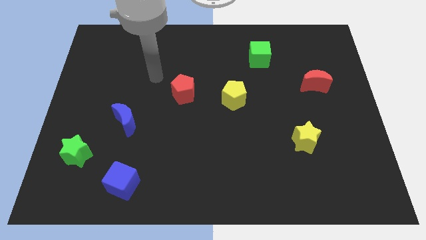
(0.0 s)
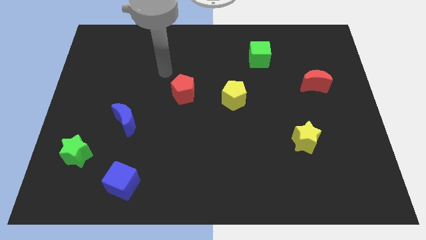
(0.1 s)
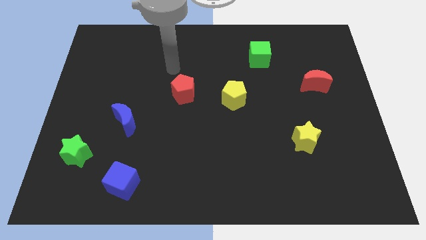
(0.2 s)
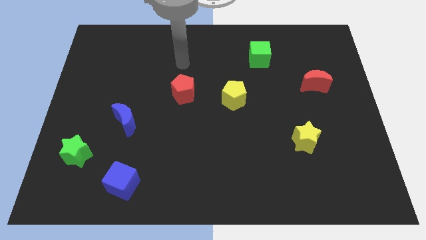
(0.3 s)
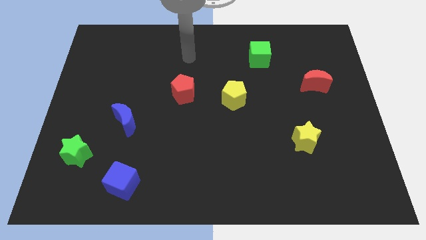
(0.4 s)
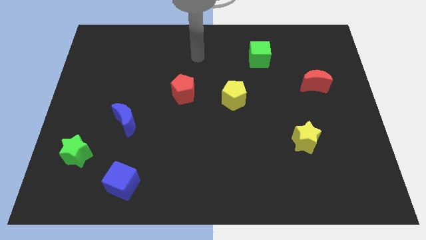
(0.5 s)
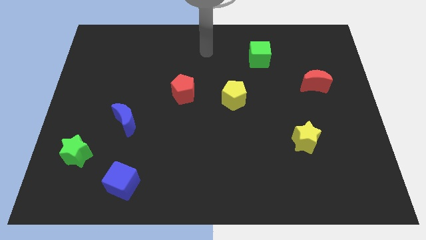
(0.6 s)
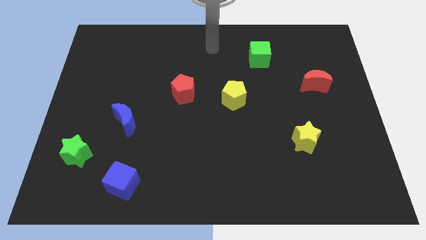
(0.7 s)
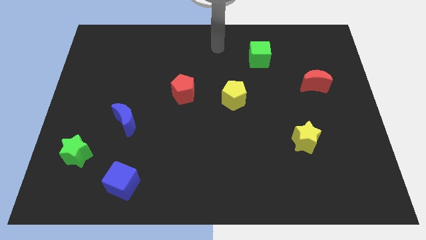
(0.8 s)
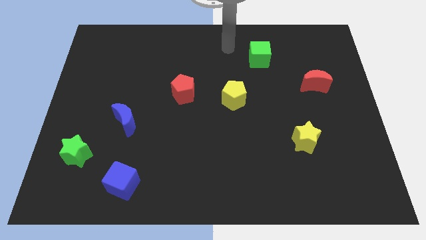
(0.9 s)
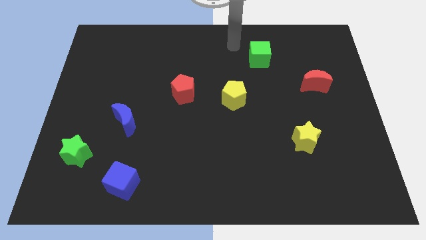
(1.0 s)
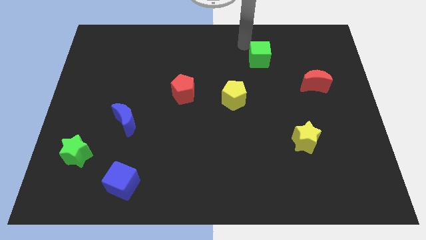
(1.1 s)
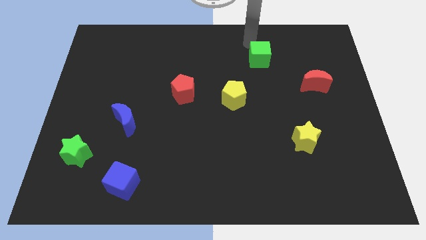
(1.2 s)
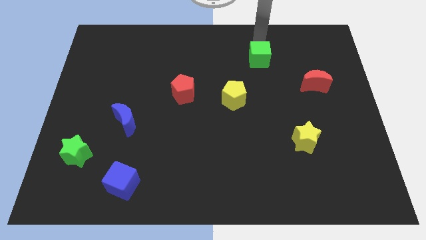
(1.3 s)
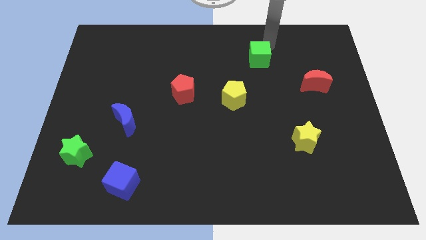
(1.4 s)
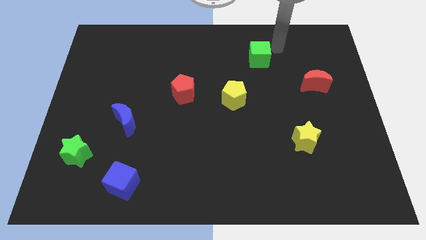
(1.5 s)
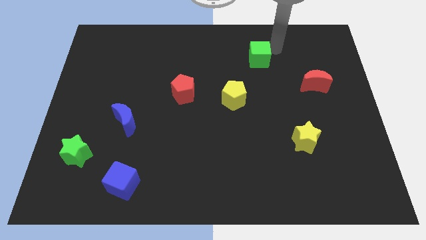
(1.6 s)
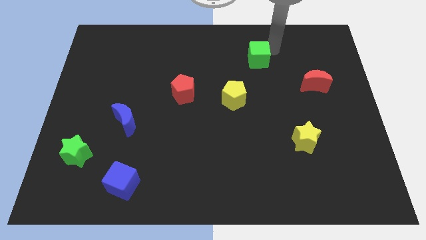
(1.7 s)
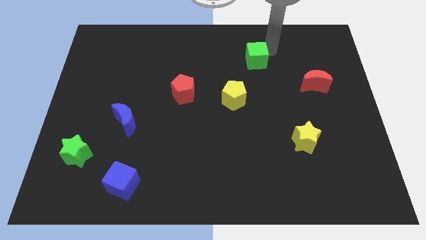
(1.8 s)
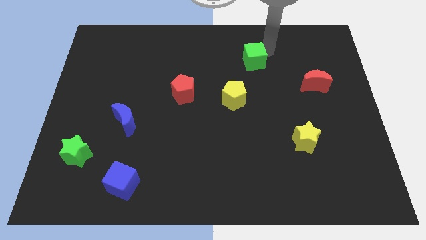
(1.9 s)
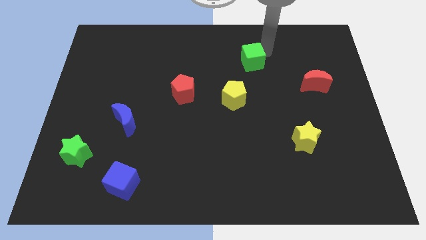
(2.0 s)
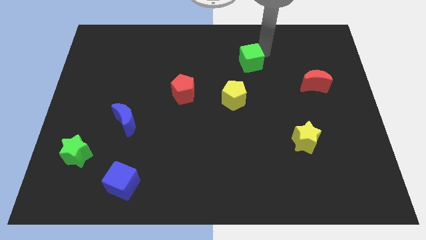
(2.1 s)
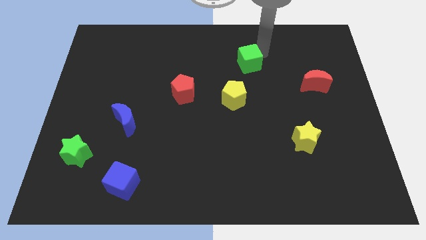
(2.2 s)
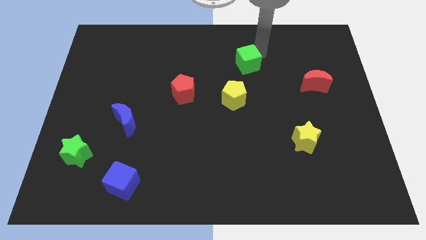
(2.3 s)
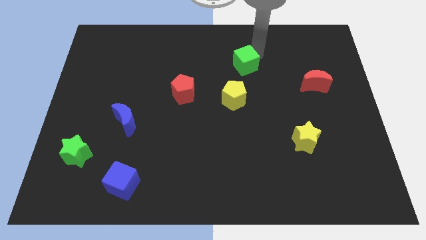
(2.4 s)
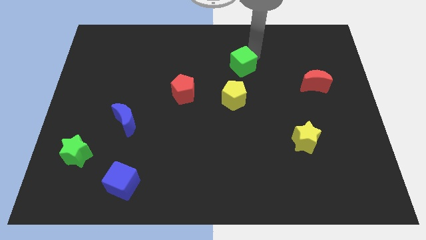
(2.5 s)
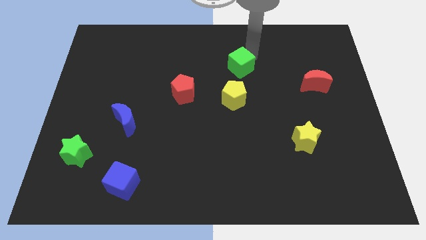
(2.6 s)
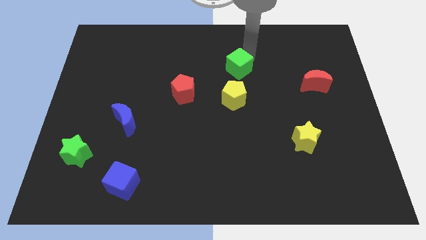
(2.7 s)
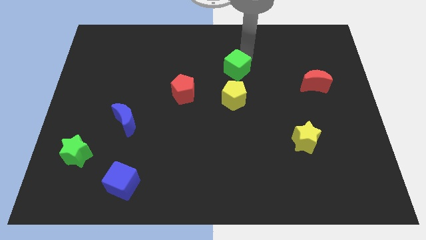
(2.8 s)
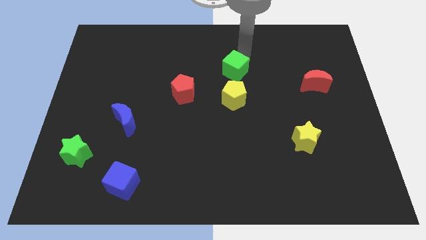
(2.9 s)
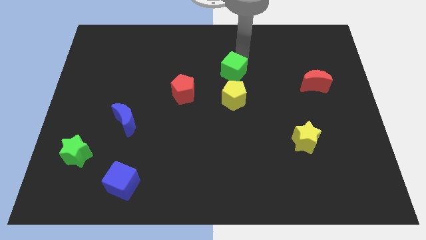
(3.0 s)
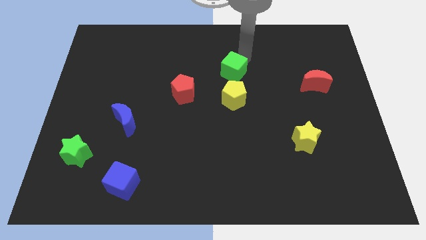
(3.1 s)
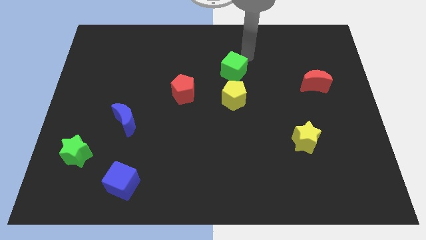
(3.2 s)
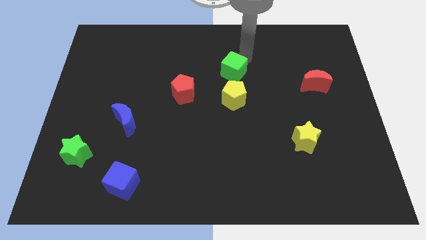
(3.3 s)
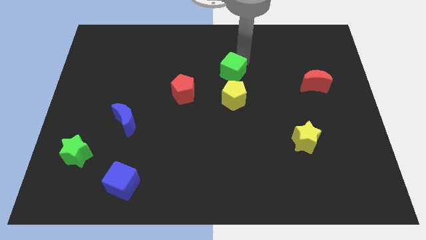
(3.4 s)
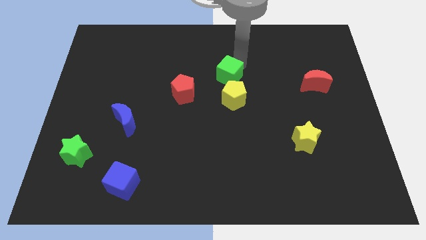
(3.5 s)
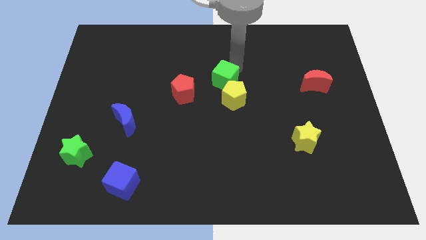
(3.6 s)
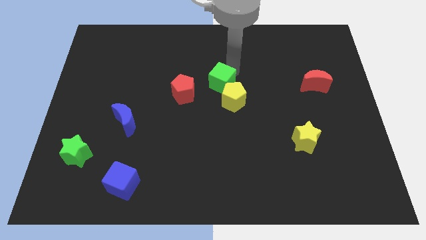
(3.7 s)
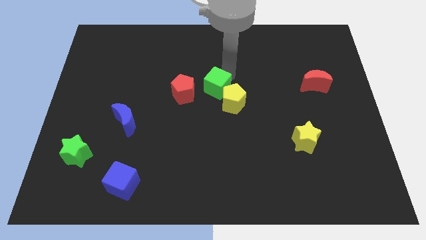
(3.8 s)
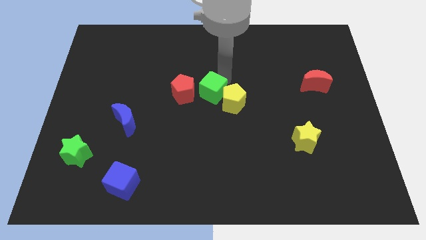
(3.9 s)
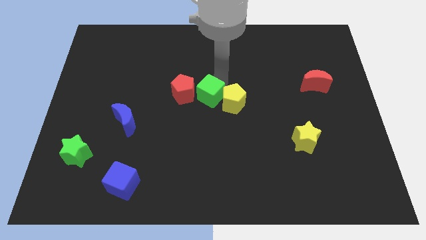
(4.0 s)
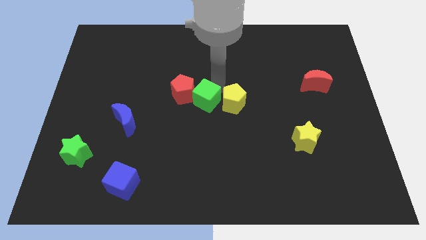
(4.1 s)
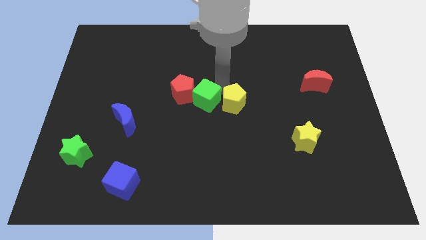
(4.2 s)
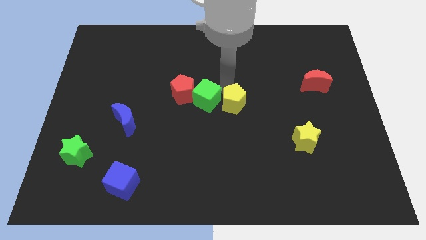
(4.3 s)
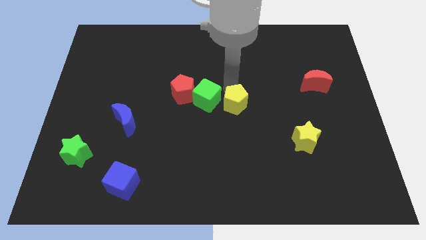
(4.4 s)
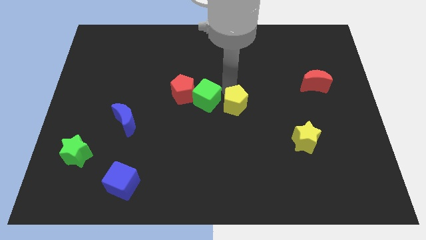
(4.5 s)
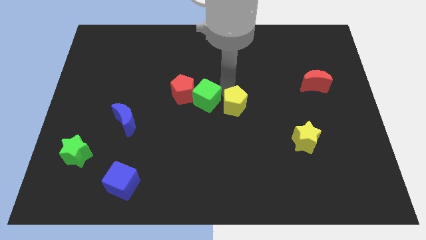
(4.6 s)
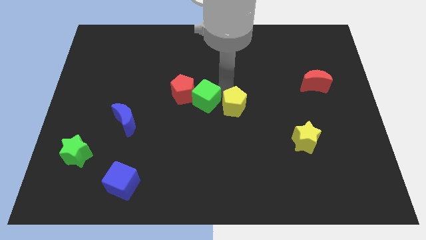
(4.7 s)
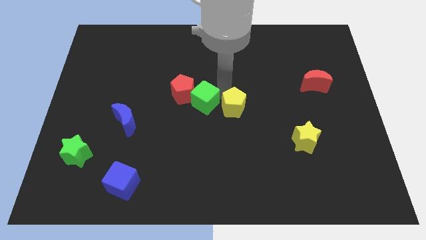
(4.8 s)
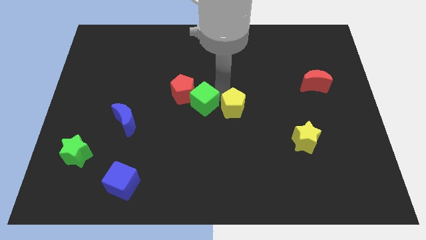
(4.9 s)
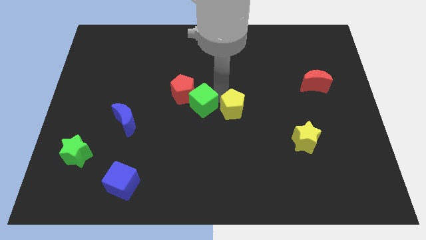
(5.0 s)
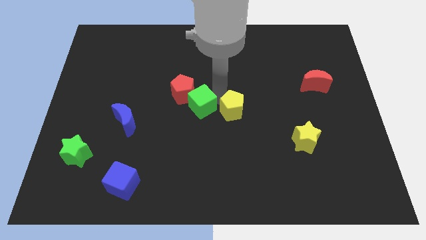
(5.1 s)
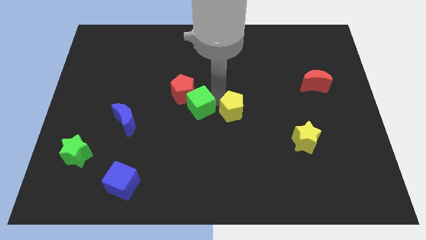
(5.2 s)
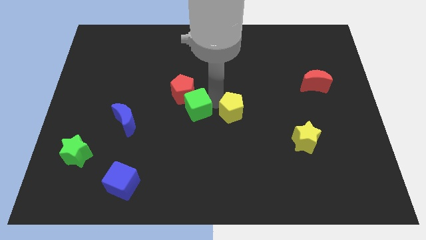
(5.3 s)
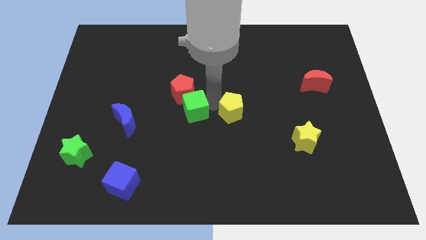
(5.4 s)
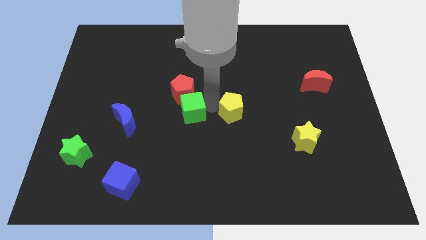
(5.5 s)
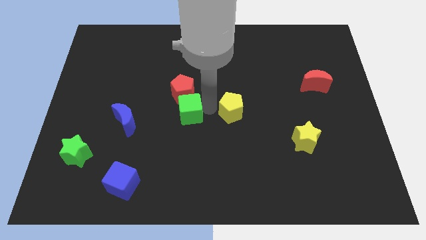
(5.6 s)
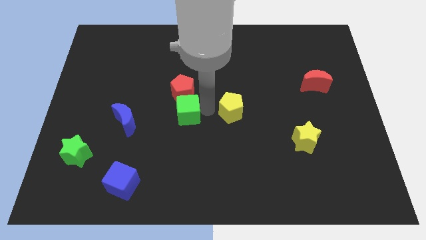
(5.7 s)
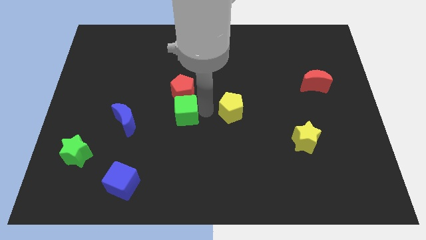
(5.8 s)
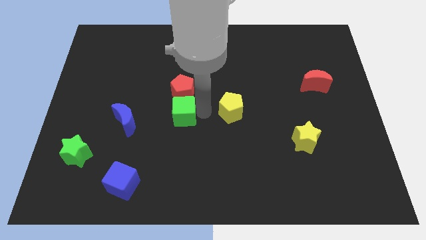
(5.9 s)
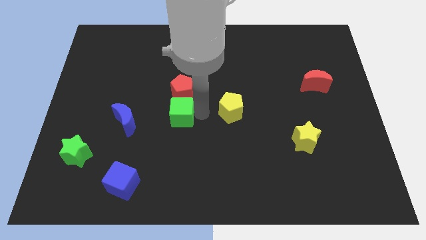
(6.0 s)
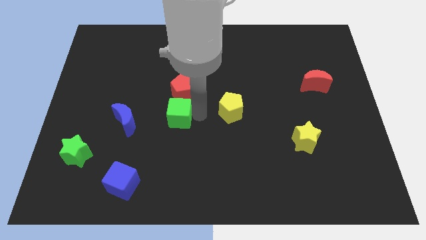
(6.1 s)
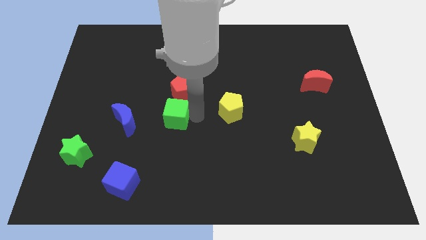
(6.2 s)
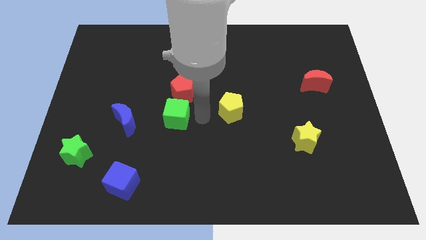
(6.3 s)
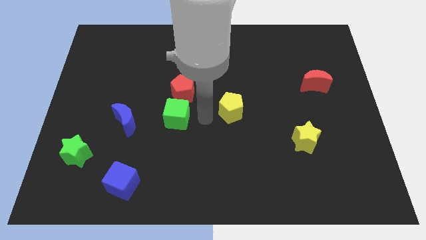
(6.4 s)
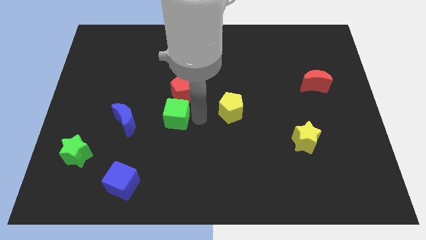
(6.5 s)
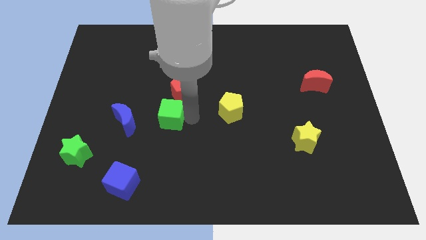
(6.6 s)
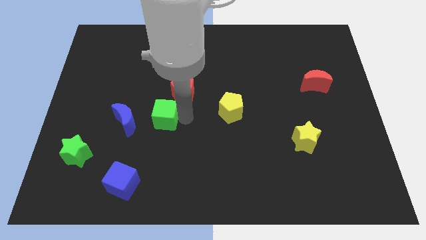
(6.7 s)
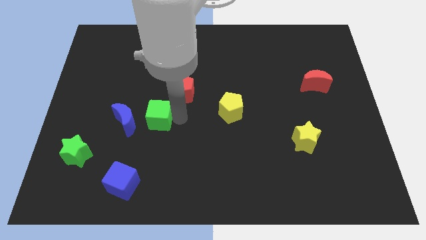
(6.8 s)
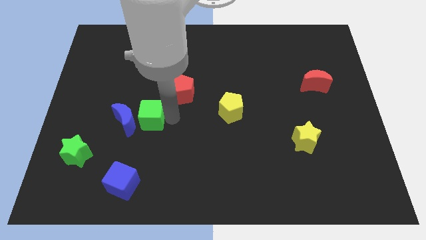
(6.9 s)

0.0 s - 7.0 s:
move the green cube close to the blue moon

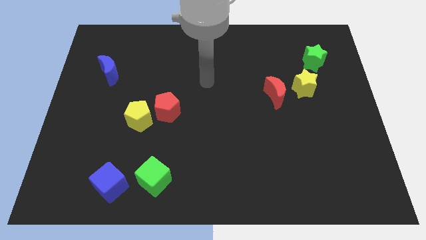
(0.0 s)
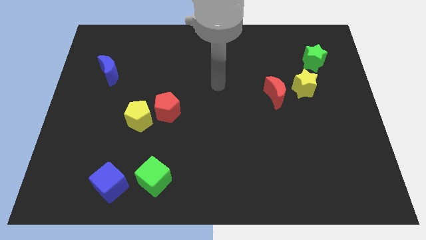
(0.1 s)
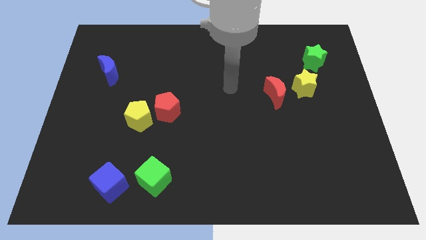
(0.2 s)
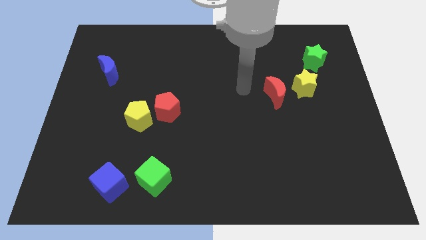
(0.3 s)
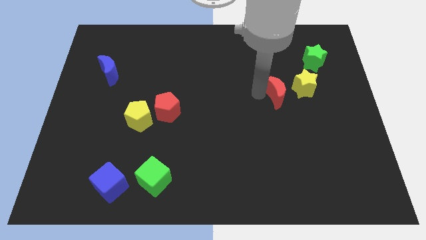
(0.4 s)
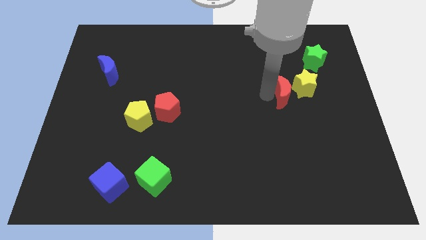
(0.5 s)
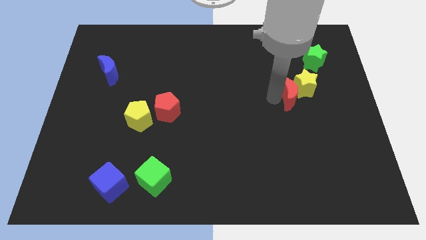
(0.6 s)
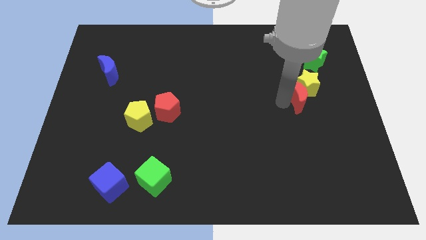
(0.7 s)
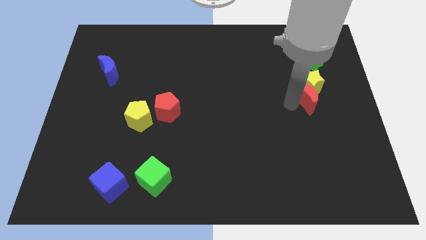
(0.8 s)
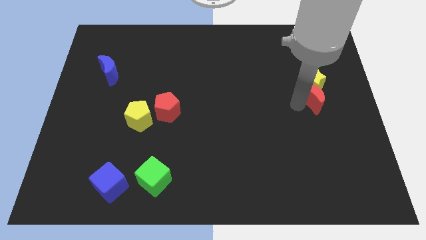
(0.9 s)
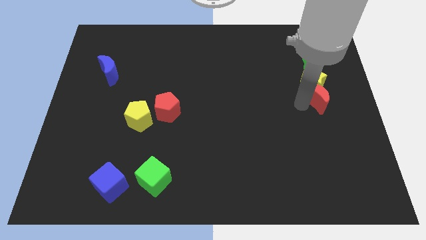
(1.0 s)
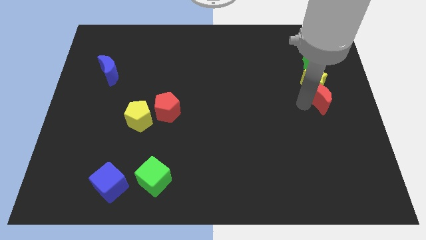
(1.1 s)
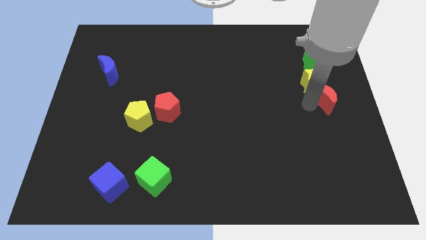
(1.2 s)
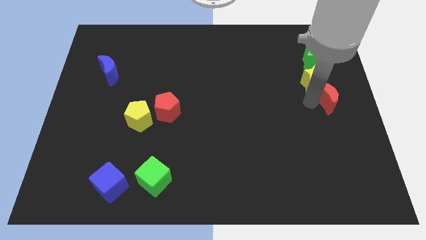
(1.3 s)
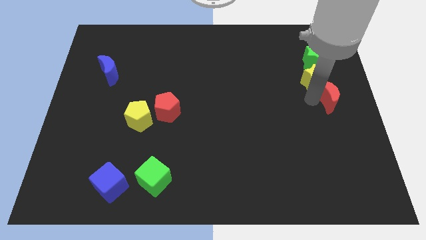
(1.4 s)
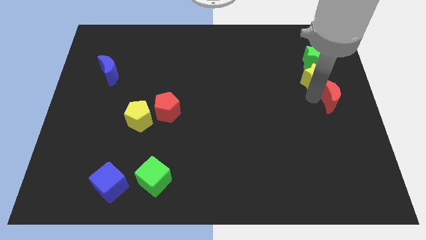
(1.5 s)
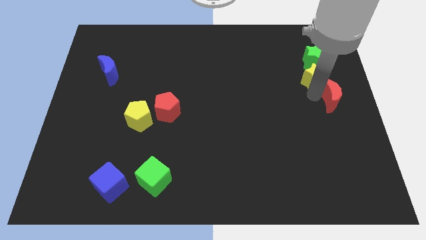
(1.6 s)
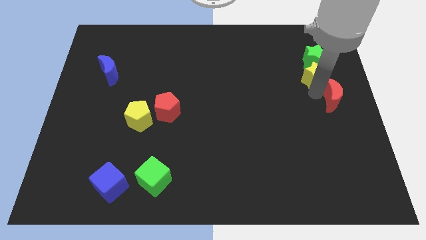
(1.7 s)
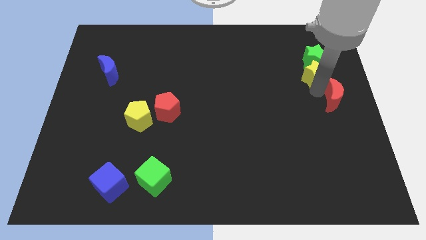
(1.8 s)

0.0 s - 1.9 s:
move the yellow star close to the green star
